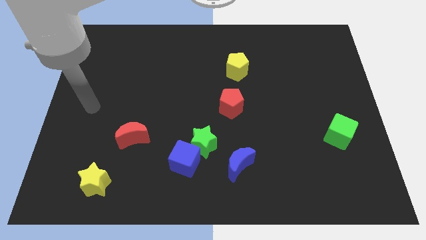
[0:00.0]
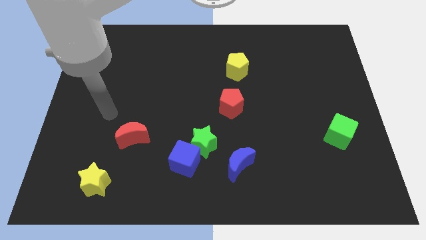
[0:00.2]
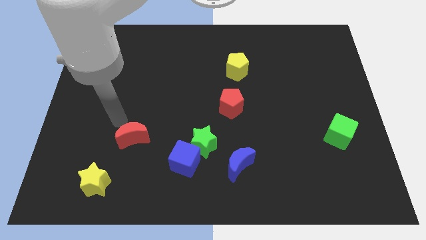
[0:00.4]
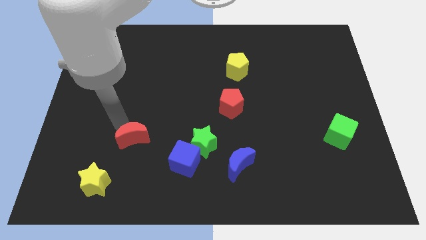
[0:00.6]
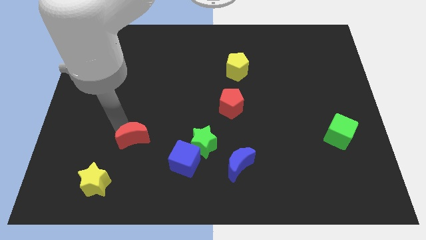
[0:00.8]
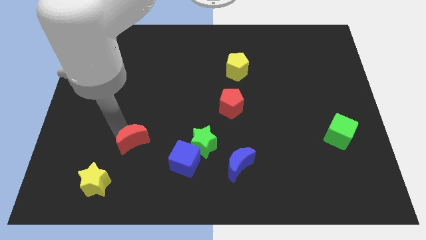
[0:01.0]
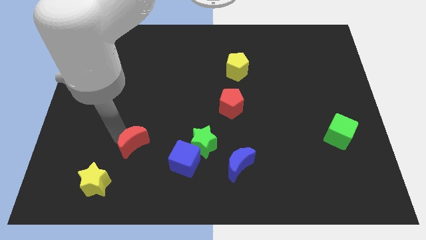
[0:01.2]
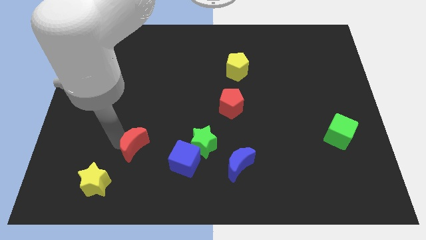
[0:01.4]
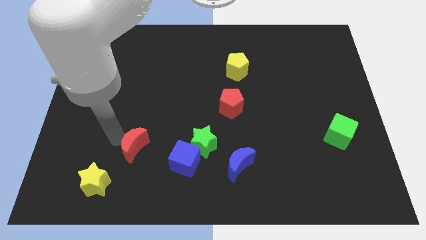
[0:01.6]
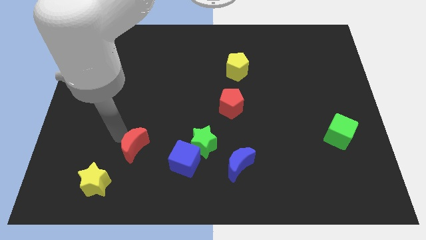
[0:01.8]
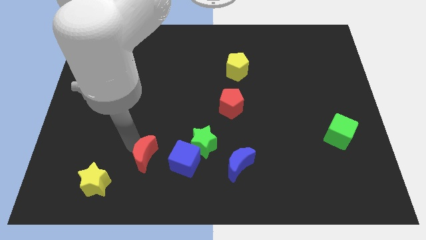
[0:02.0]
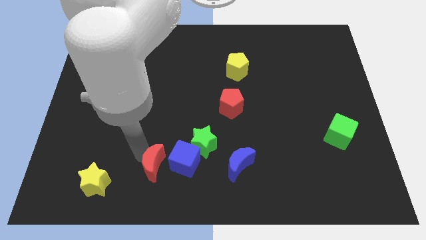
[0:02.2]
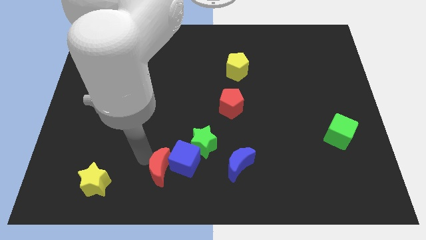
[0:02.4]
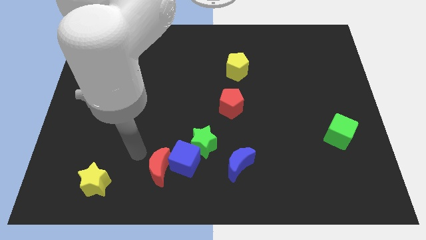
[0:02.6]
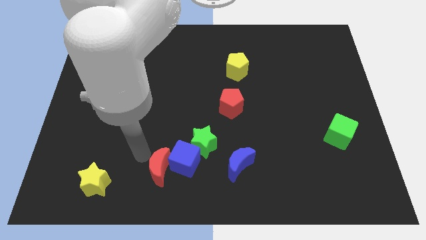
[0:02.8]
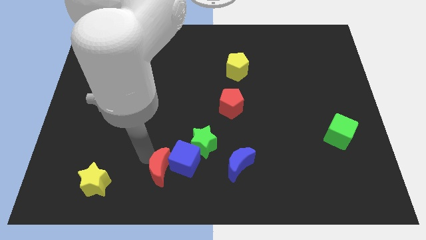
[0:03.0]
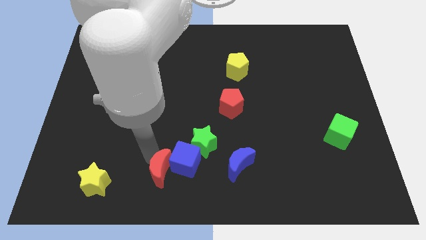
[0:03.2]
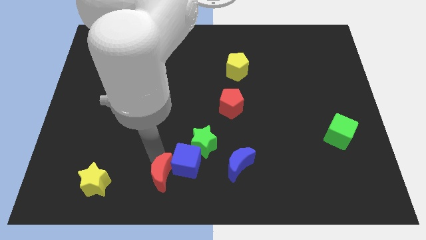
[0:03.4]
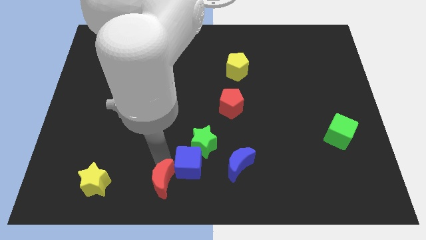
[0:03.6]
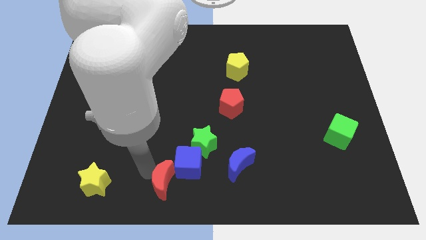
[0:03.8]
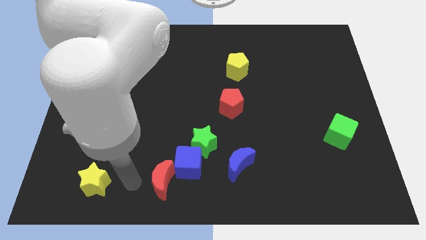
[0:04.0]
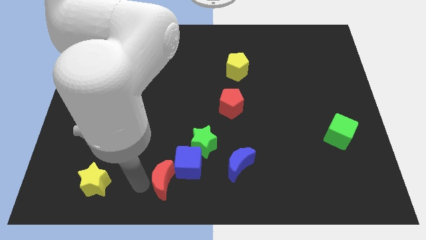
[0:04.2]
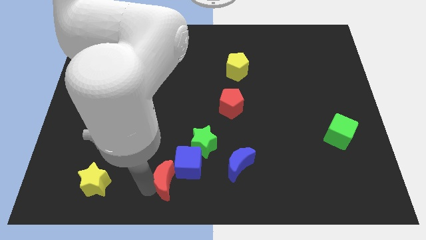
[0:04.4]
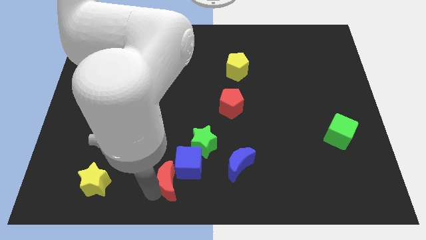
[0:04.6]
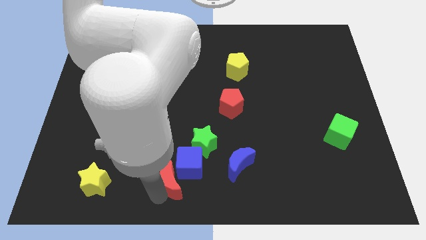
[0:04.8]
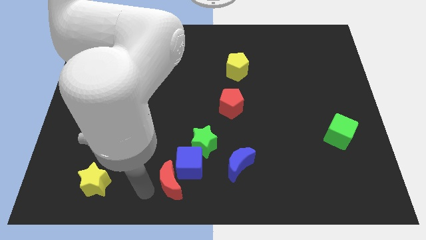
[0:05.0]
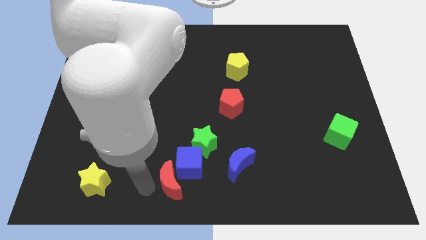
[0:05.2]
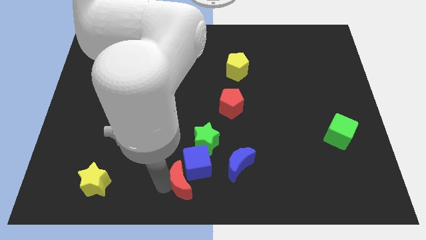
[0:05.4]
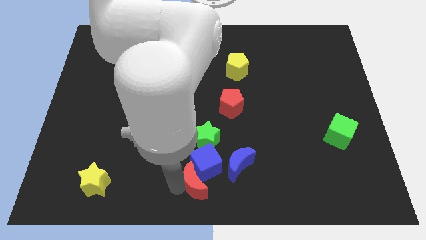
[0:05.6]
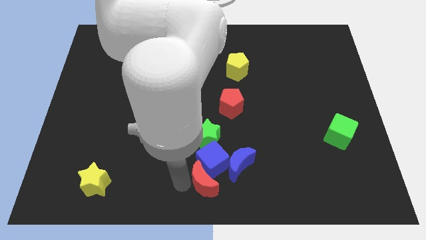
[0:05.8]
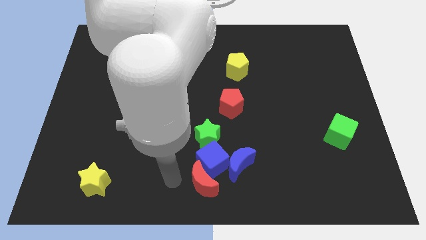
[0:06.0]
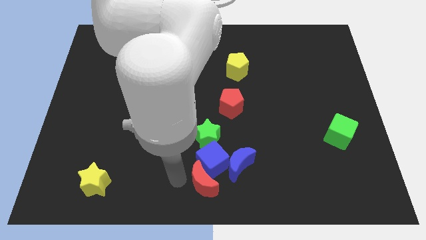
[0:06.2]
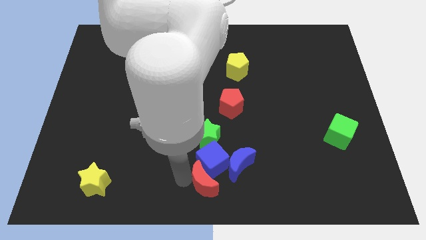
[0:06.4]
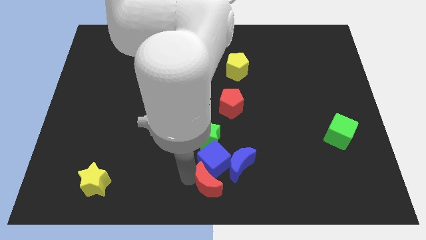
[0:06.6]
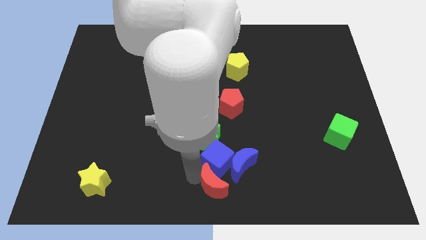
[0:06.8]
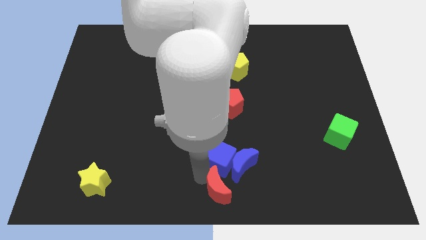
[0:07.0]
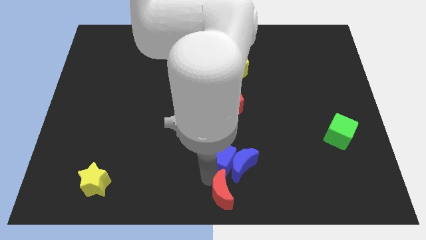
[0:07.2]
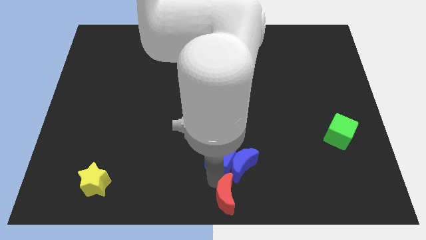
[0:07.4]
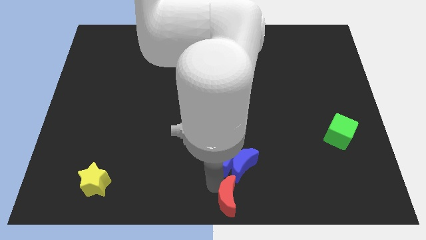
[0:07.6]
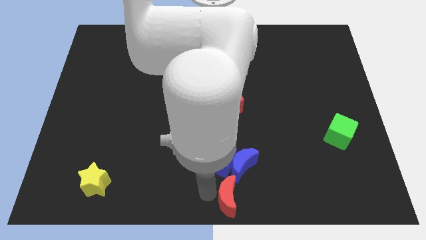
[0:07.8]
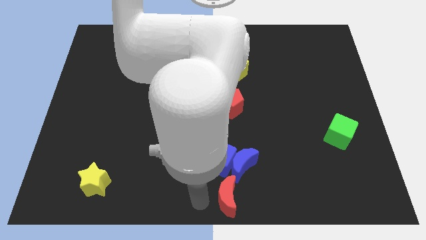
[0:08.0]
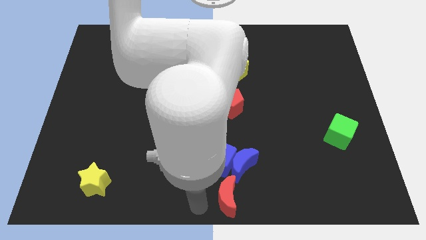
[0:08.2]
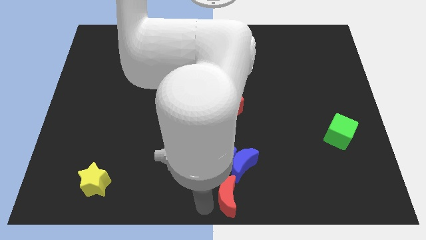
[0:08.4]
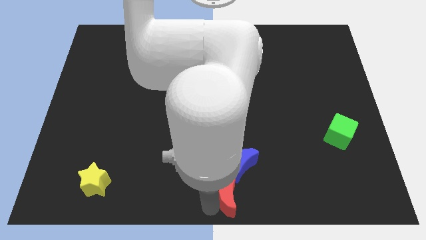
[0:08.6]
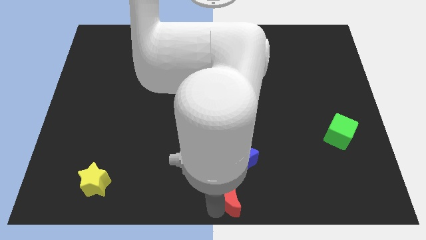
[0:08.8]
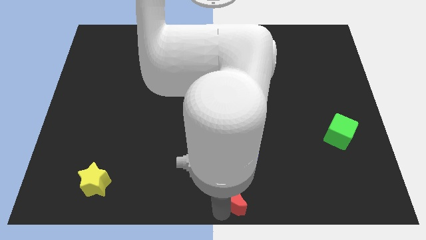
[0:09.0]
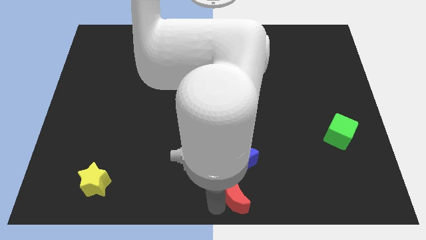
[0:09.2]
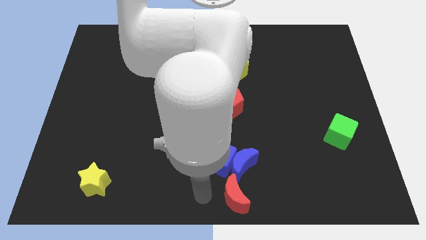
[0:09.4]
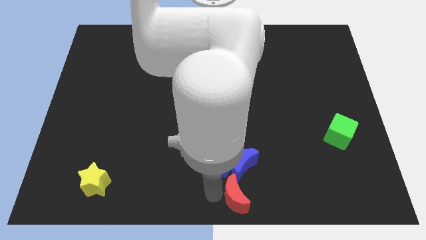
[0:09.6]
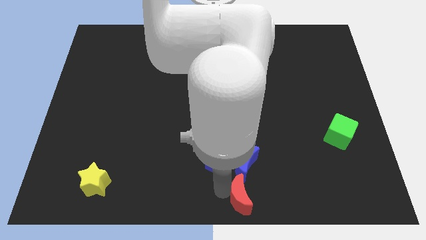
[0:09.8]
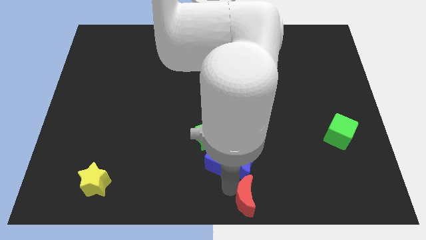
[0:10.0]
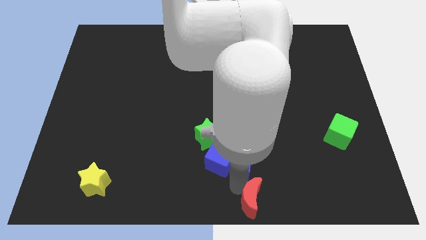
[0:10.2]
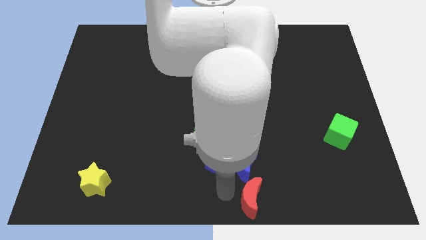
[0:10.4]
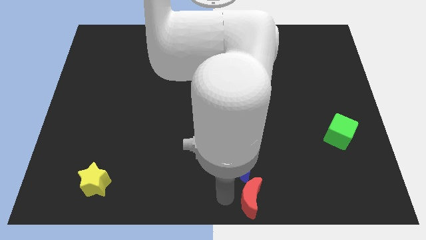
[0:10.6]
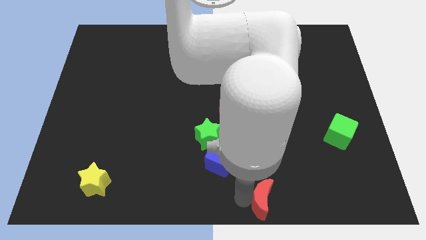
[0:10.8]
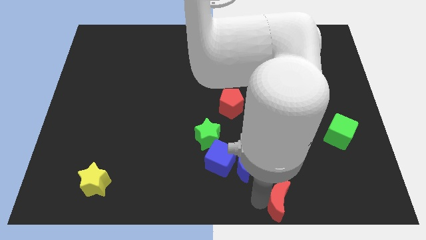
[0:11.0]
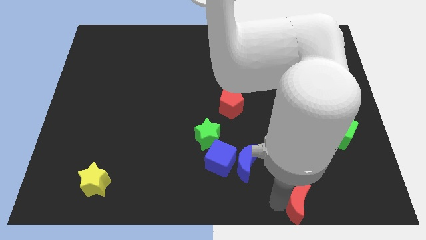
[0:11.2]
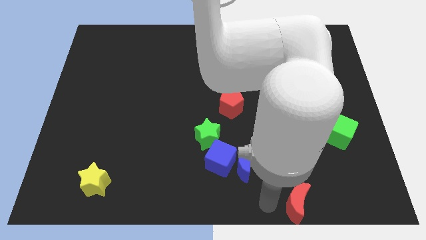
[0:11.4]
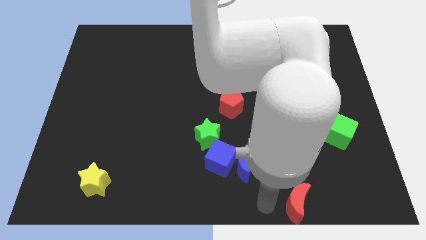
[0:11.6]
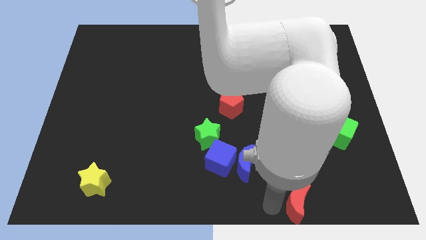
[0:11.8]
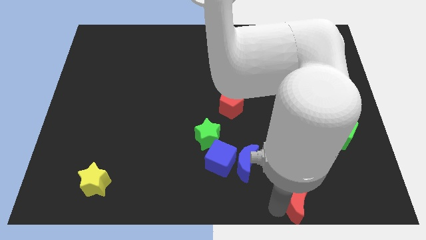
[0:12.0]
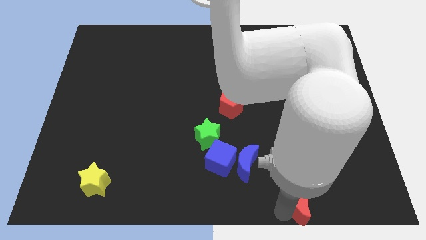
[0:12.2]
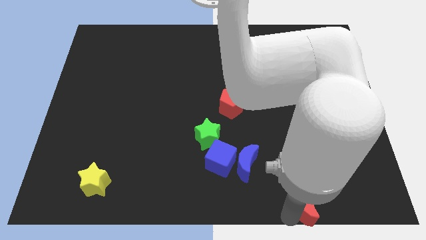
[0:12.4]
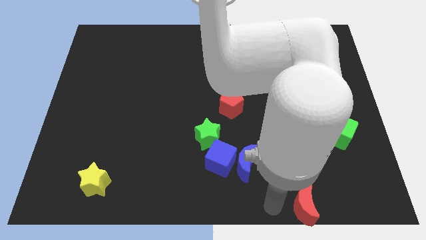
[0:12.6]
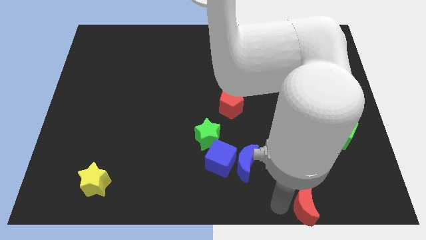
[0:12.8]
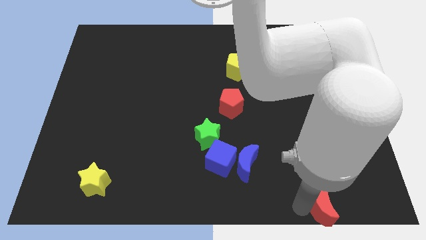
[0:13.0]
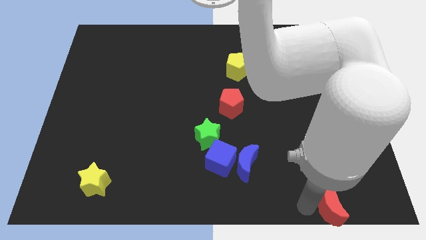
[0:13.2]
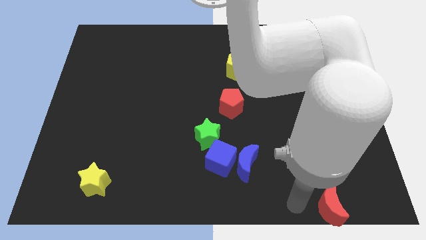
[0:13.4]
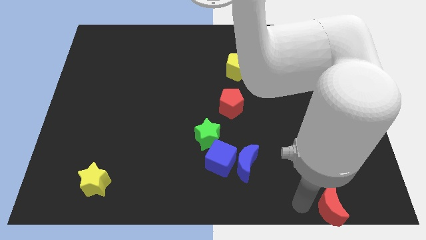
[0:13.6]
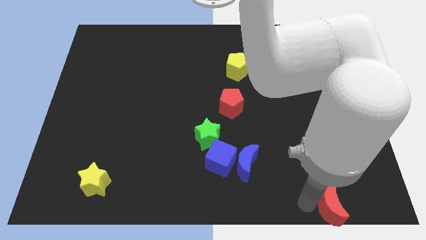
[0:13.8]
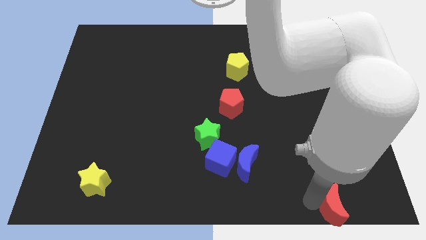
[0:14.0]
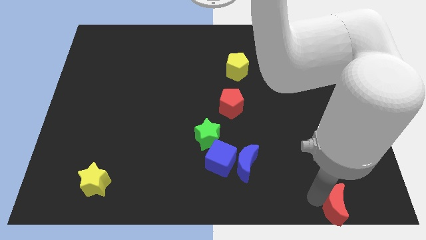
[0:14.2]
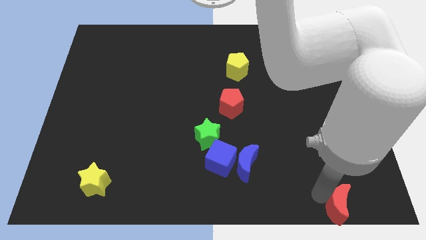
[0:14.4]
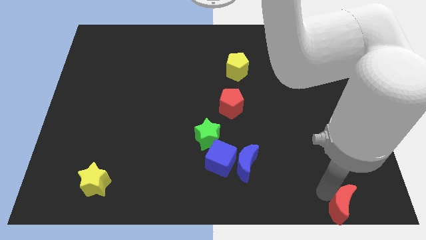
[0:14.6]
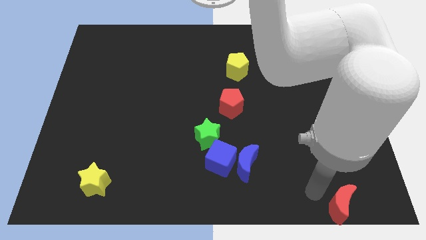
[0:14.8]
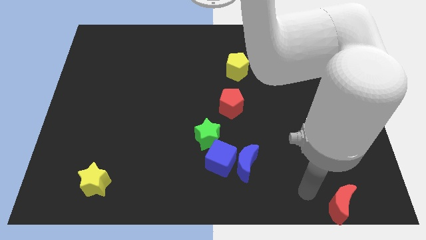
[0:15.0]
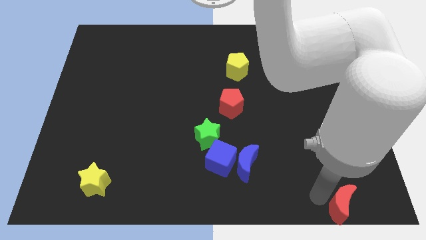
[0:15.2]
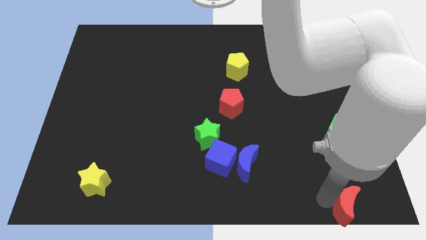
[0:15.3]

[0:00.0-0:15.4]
move the red moon to the lower right corner

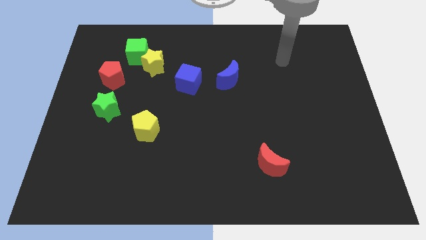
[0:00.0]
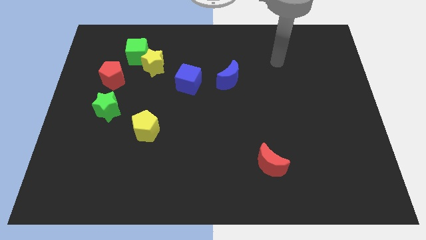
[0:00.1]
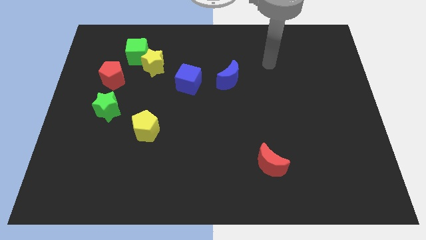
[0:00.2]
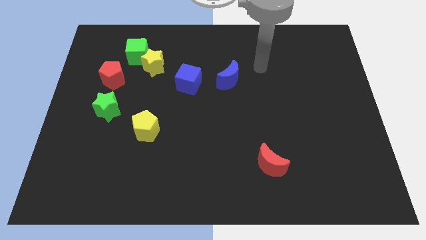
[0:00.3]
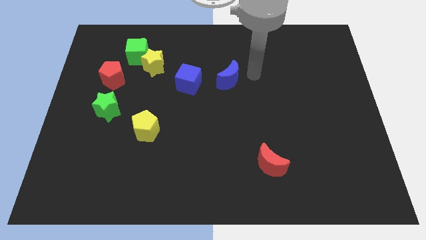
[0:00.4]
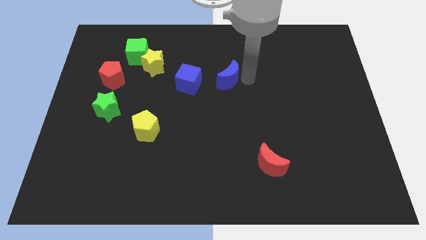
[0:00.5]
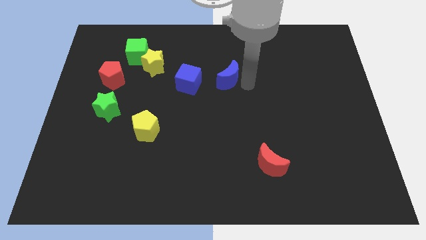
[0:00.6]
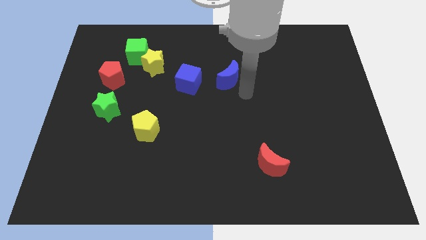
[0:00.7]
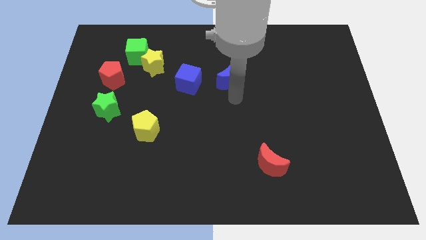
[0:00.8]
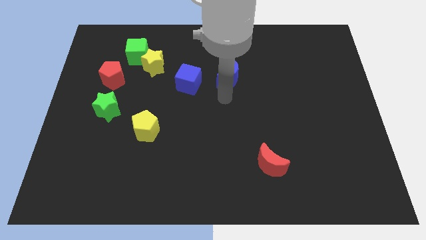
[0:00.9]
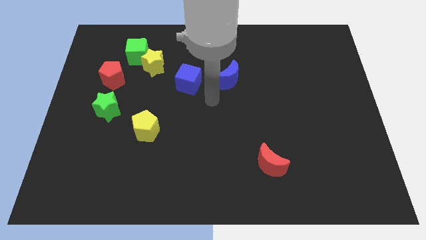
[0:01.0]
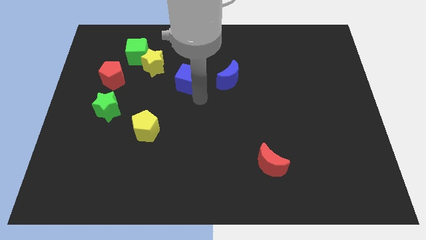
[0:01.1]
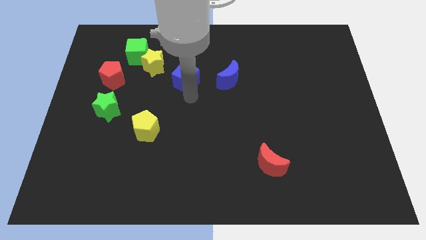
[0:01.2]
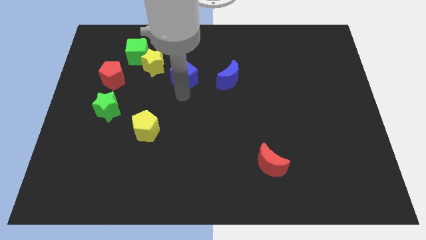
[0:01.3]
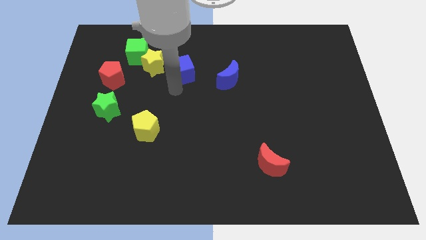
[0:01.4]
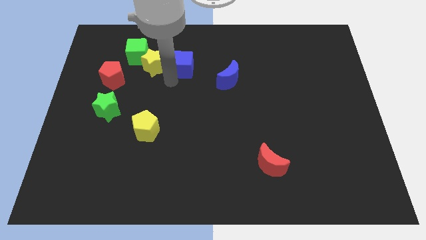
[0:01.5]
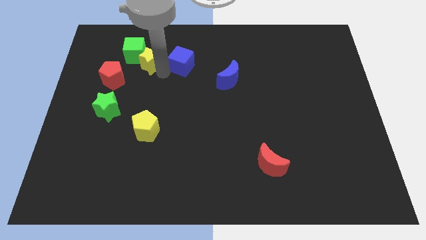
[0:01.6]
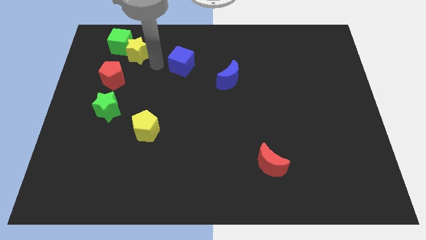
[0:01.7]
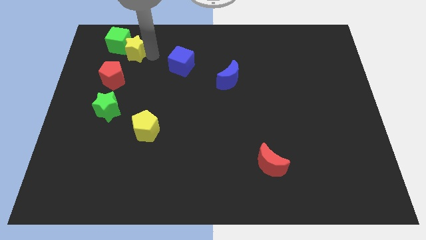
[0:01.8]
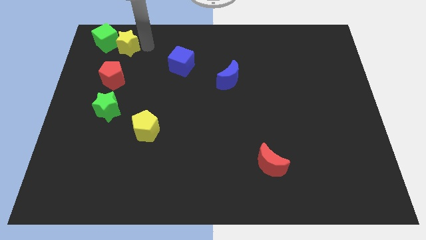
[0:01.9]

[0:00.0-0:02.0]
put the green cube to the upper left corner
